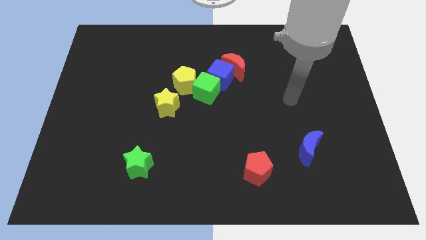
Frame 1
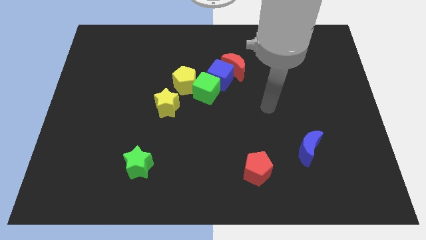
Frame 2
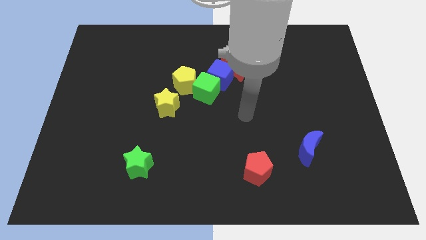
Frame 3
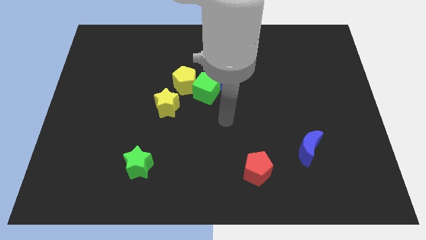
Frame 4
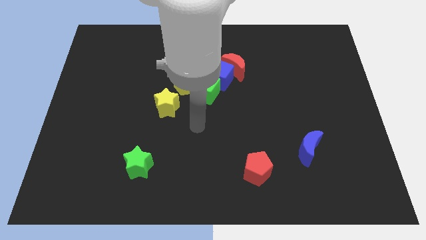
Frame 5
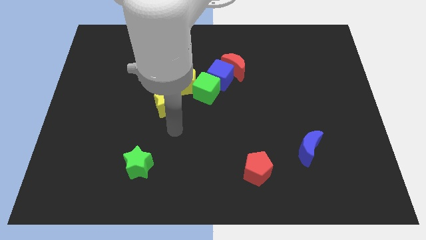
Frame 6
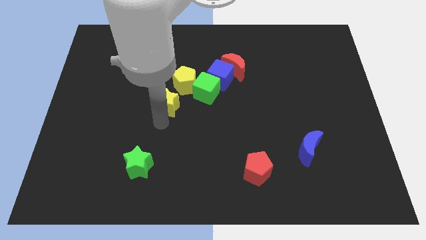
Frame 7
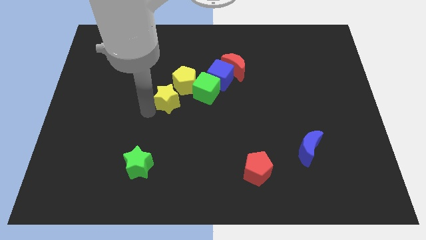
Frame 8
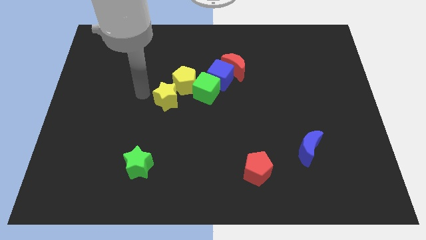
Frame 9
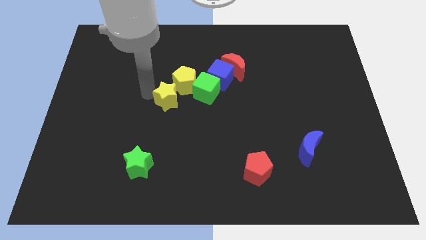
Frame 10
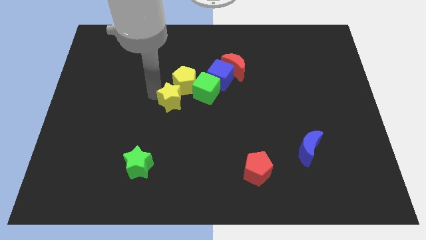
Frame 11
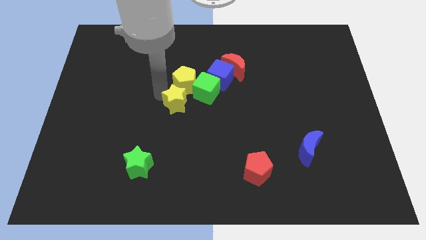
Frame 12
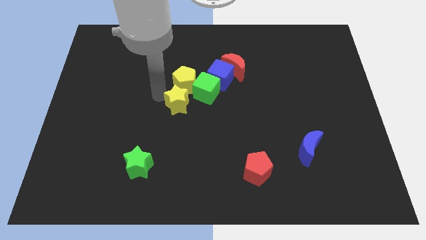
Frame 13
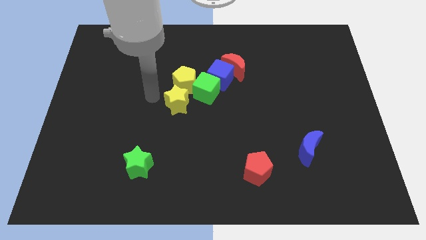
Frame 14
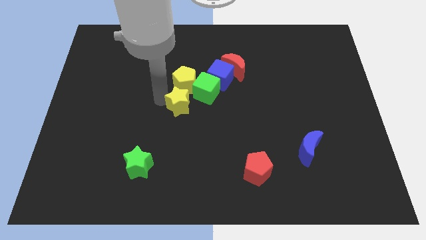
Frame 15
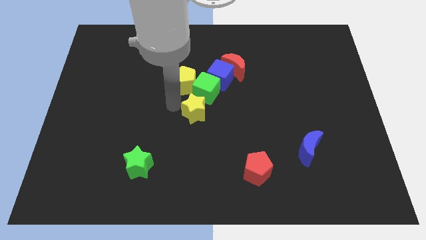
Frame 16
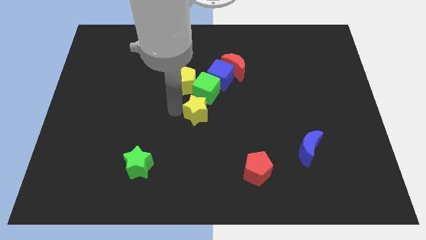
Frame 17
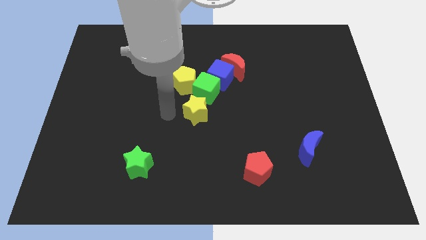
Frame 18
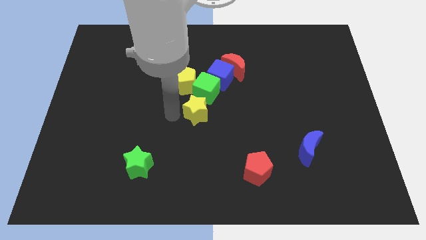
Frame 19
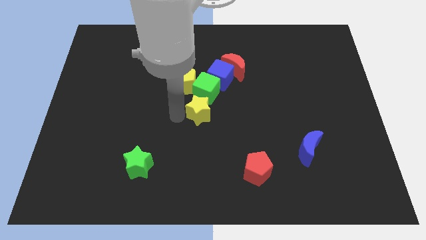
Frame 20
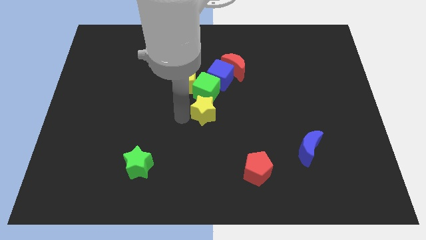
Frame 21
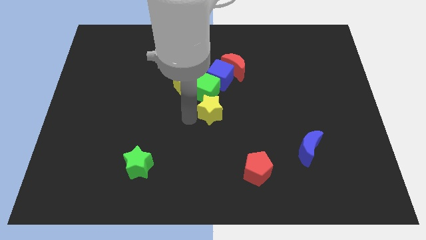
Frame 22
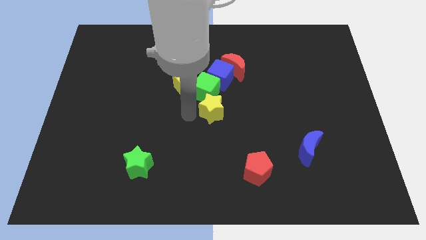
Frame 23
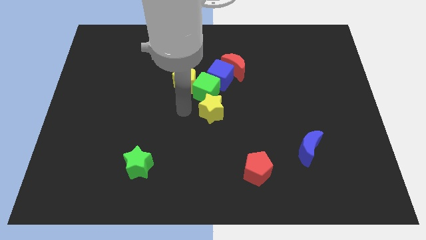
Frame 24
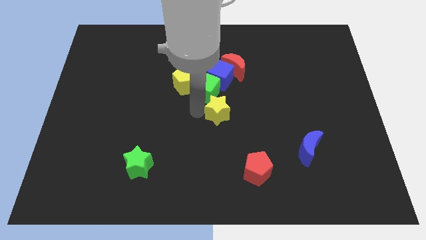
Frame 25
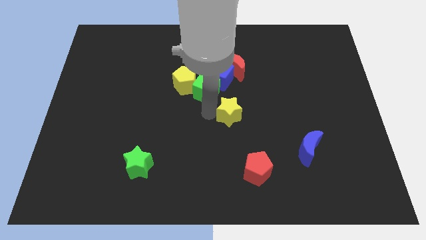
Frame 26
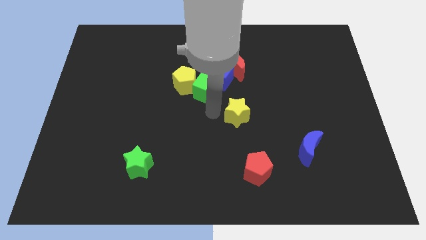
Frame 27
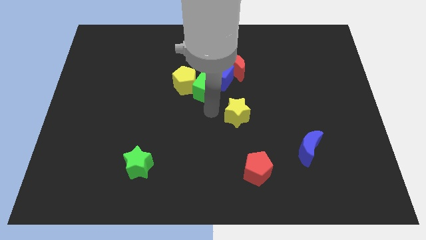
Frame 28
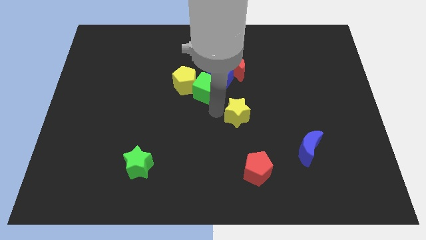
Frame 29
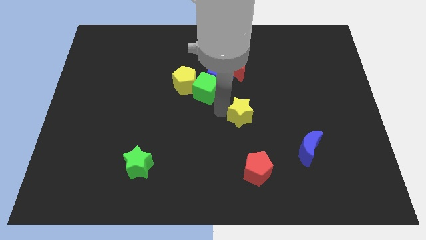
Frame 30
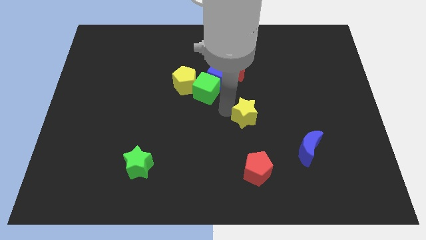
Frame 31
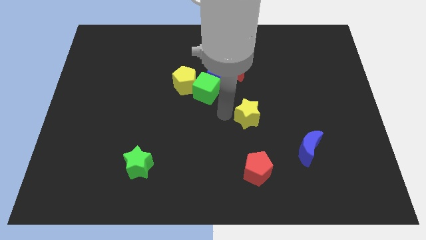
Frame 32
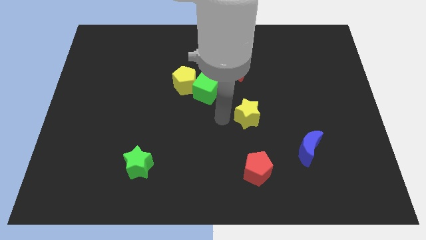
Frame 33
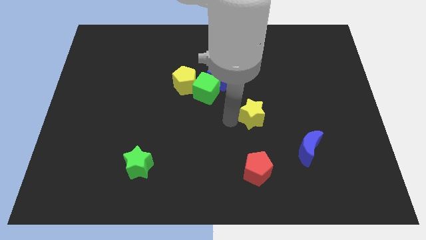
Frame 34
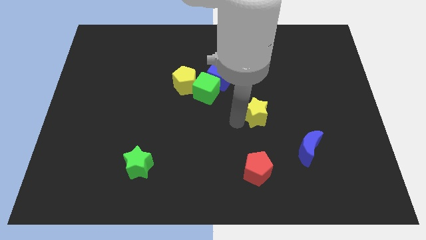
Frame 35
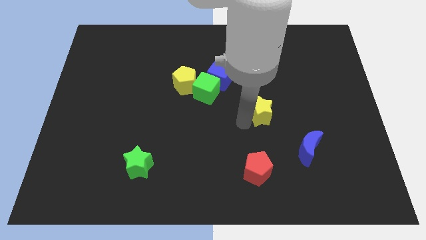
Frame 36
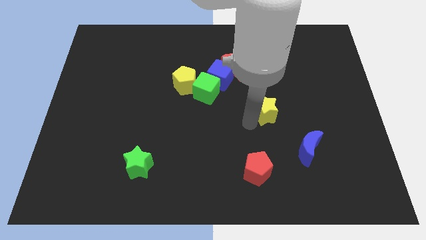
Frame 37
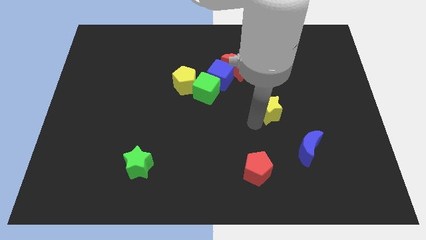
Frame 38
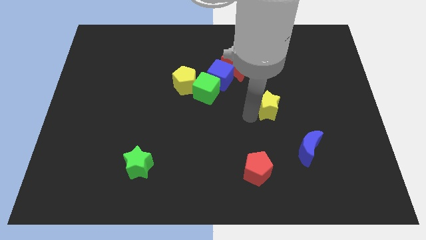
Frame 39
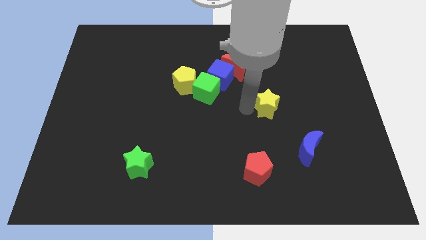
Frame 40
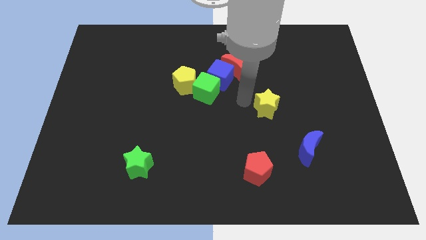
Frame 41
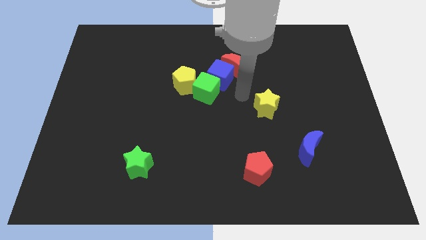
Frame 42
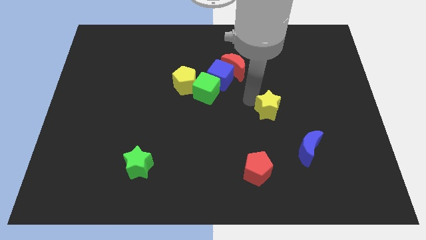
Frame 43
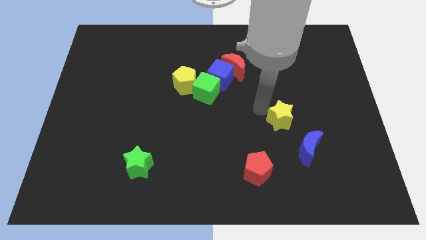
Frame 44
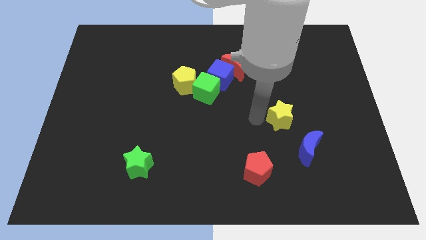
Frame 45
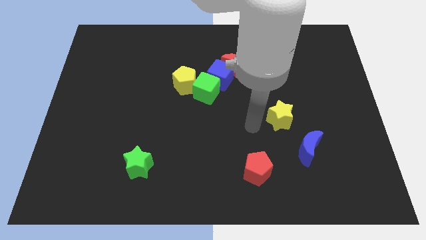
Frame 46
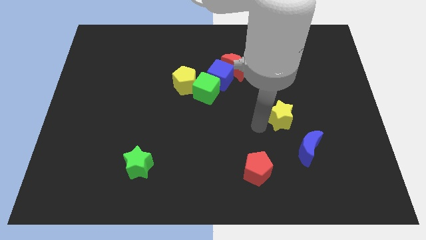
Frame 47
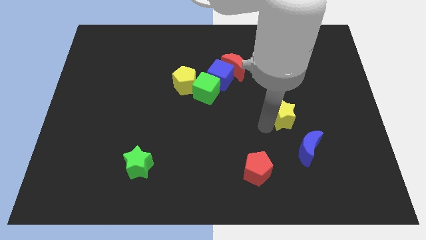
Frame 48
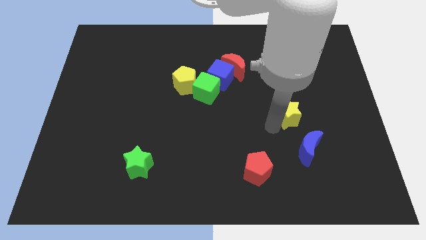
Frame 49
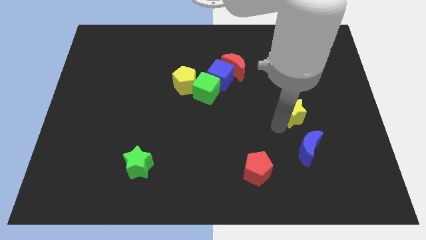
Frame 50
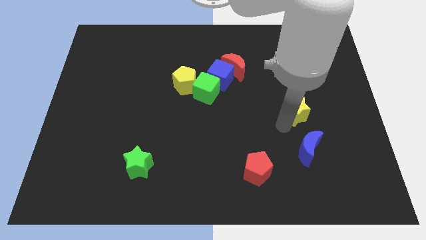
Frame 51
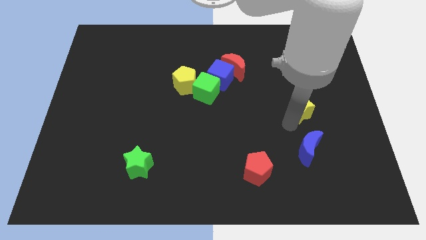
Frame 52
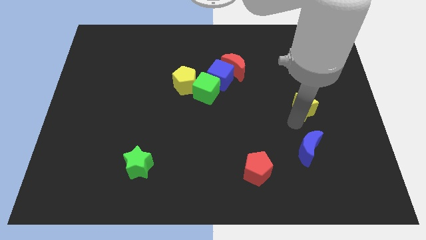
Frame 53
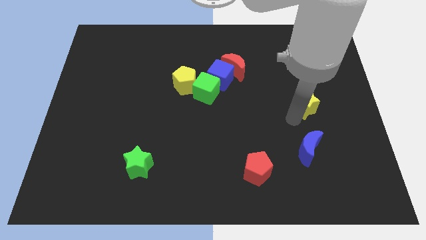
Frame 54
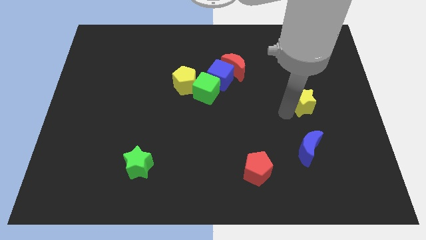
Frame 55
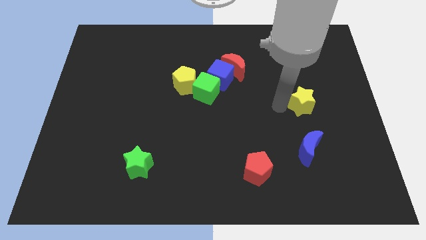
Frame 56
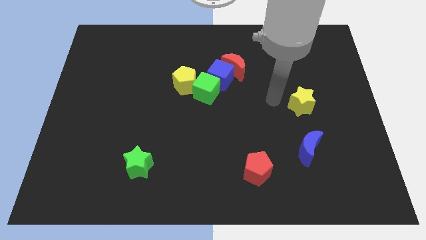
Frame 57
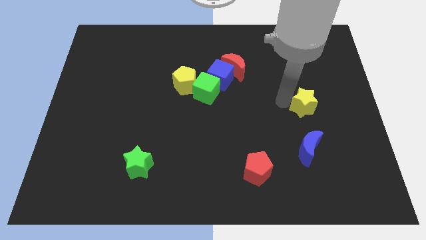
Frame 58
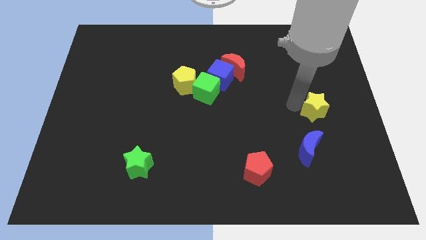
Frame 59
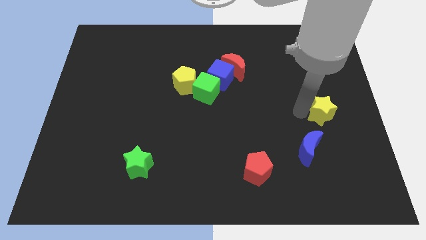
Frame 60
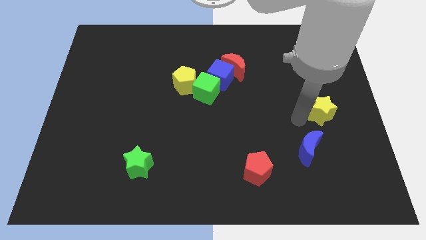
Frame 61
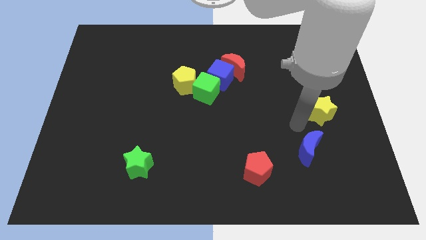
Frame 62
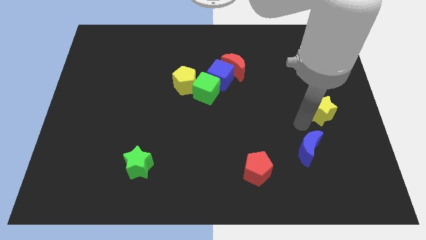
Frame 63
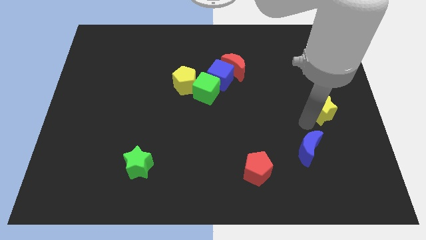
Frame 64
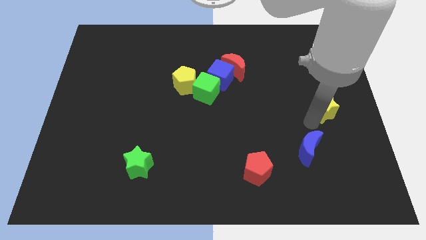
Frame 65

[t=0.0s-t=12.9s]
move the yellow star to the right side of the board
